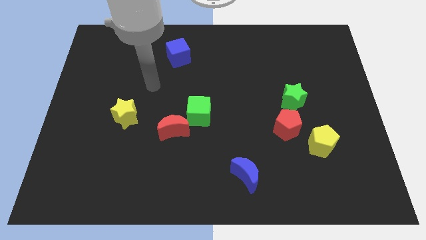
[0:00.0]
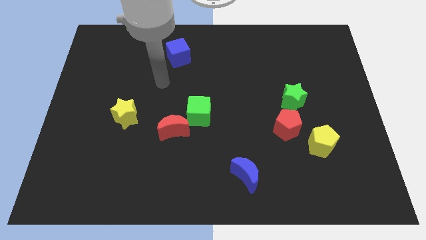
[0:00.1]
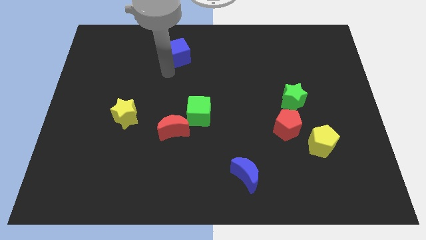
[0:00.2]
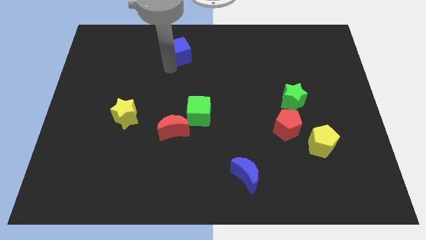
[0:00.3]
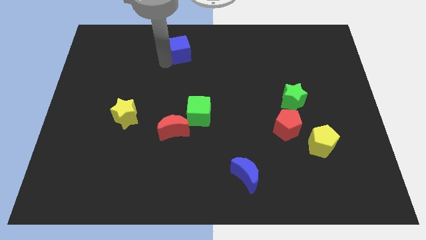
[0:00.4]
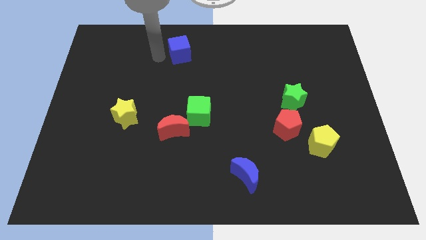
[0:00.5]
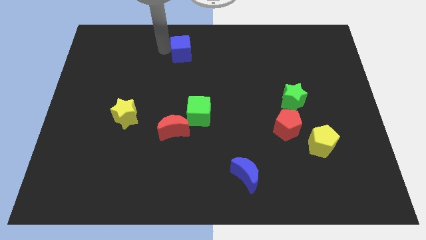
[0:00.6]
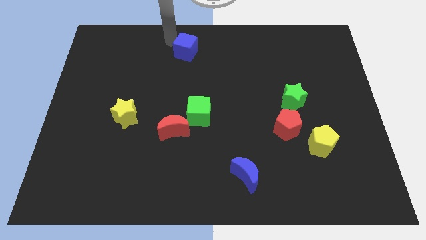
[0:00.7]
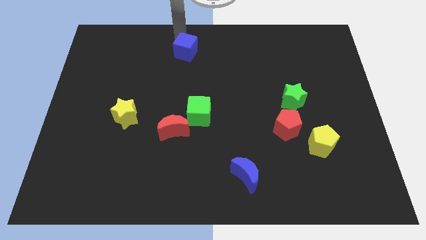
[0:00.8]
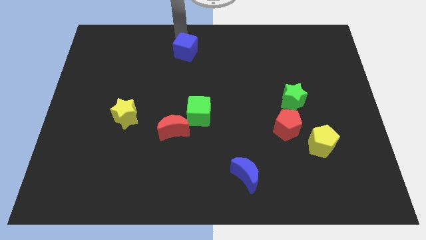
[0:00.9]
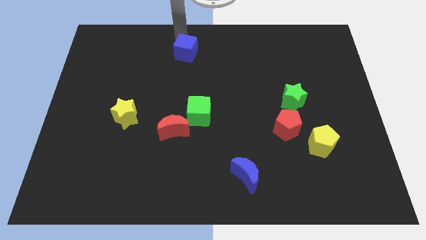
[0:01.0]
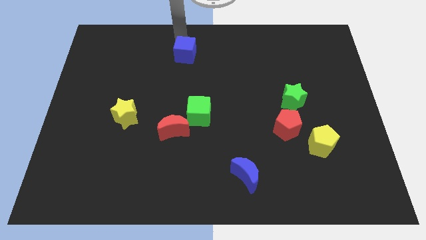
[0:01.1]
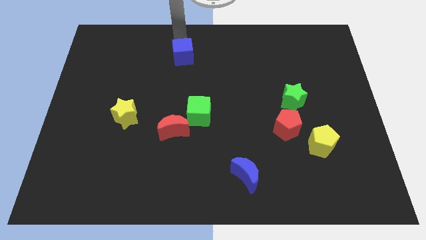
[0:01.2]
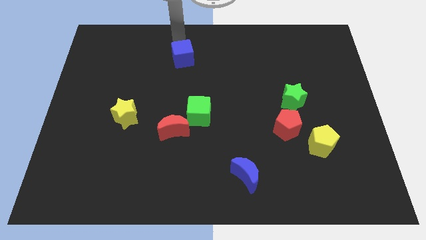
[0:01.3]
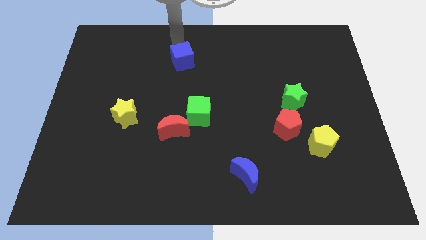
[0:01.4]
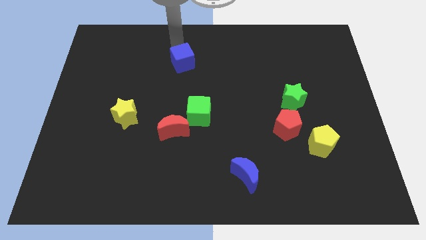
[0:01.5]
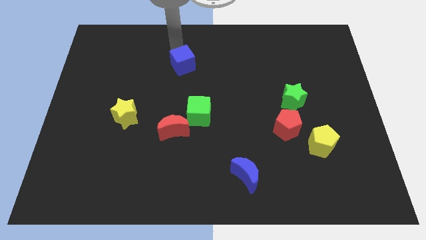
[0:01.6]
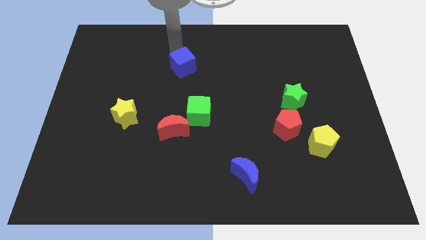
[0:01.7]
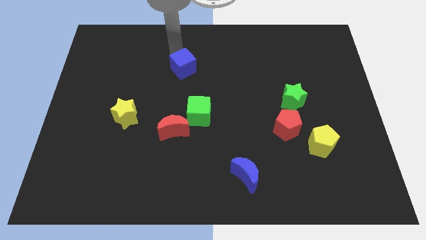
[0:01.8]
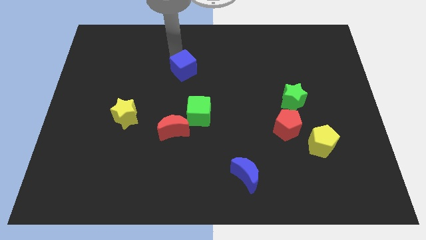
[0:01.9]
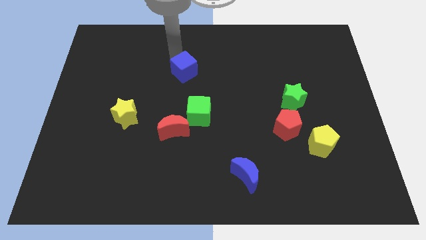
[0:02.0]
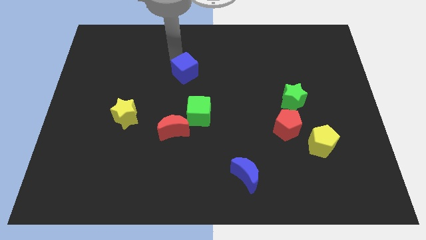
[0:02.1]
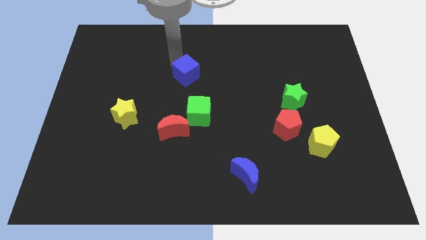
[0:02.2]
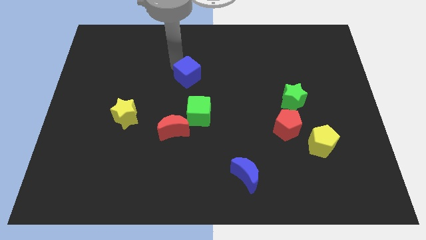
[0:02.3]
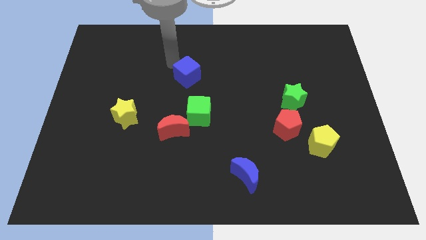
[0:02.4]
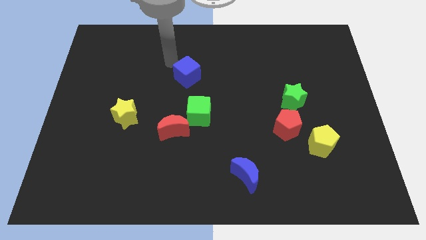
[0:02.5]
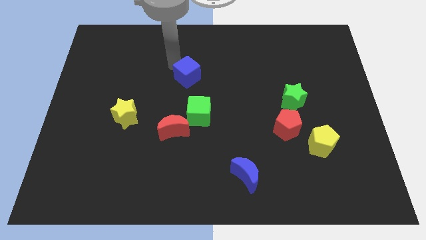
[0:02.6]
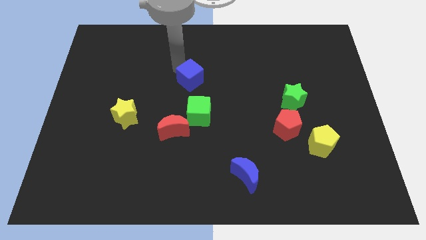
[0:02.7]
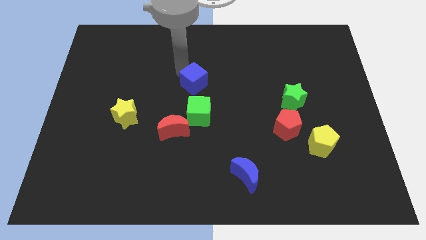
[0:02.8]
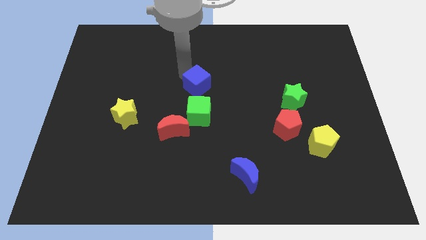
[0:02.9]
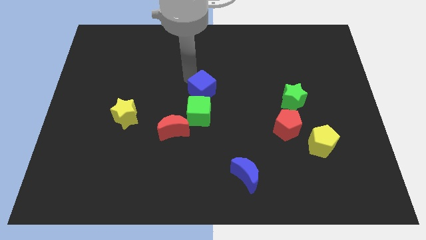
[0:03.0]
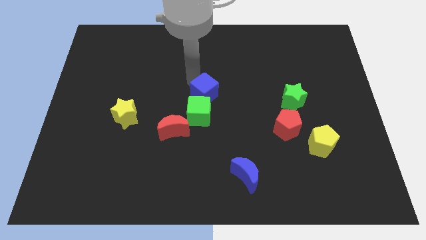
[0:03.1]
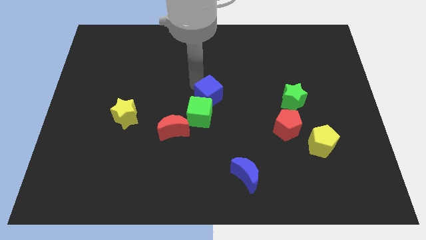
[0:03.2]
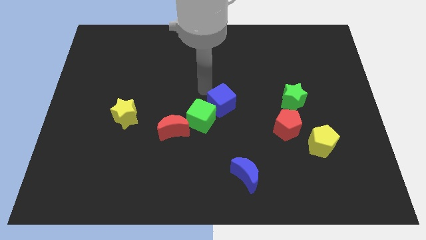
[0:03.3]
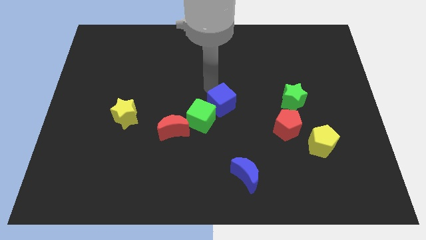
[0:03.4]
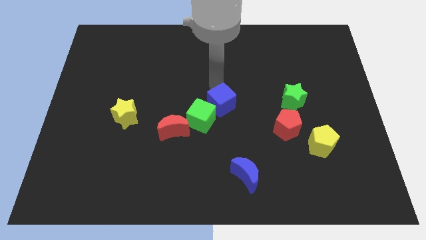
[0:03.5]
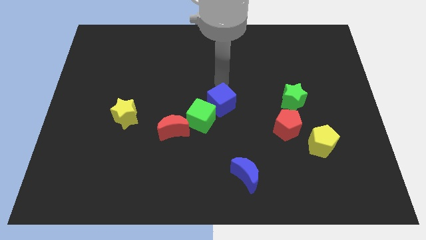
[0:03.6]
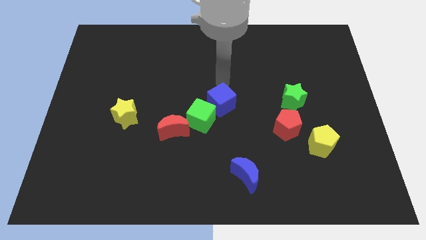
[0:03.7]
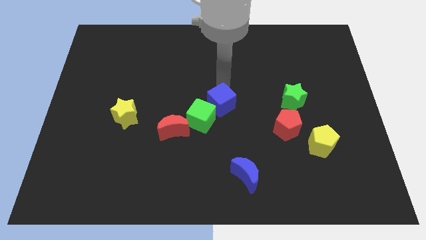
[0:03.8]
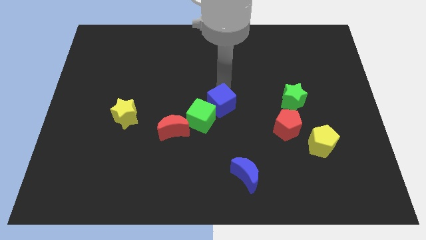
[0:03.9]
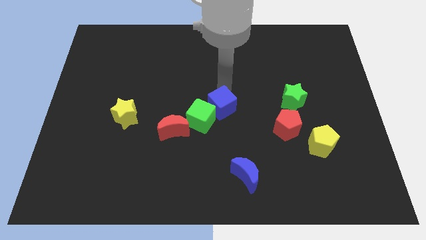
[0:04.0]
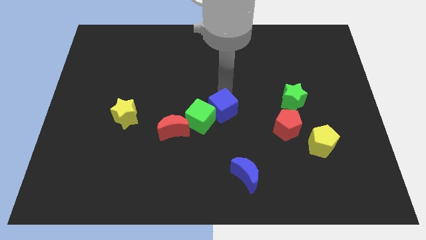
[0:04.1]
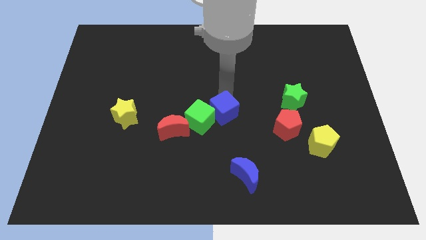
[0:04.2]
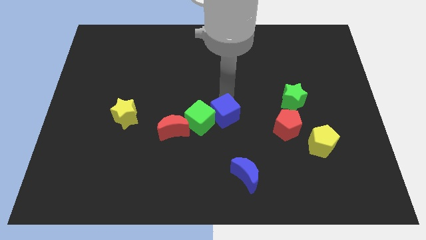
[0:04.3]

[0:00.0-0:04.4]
push the blue cube to the right of the red moon

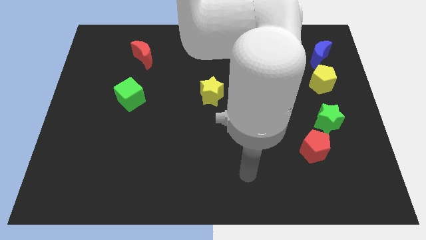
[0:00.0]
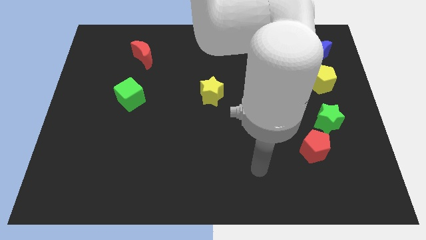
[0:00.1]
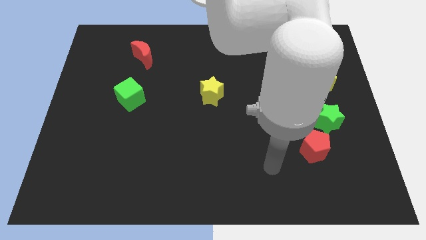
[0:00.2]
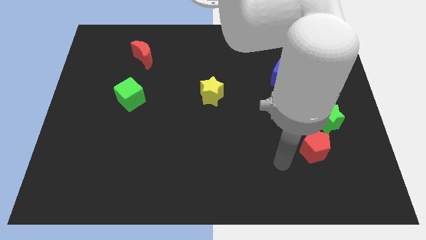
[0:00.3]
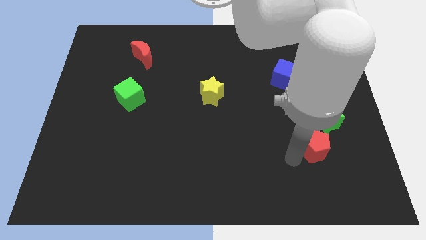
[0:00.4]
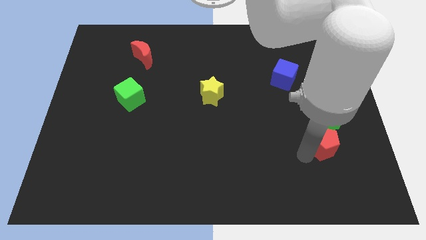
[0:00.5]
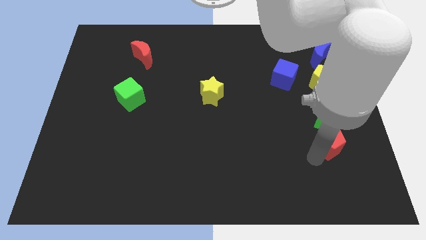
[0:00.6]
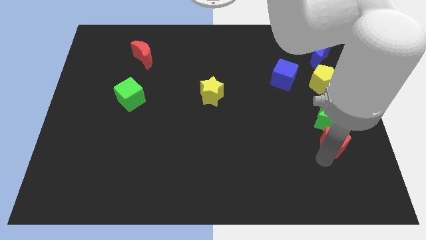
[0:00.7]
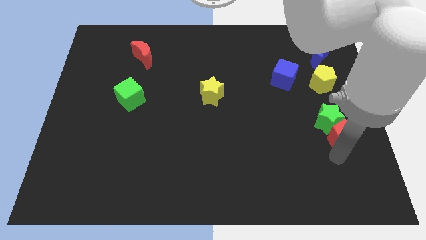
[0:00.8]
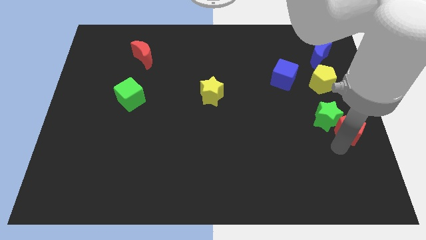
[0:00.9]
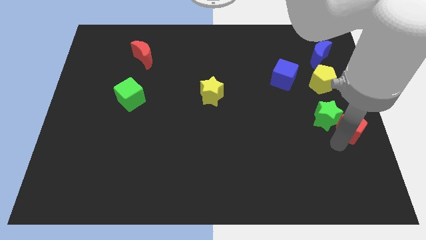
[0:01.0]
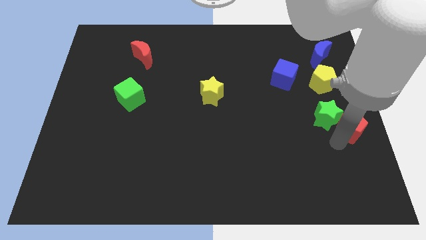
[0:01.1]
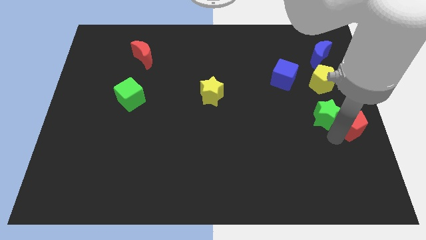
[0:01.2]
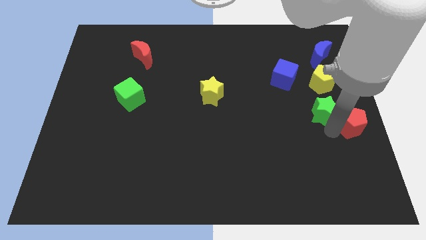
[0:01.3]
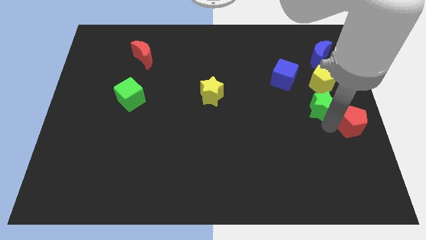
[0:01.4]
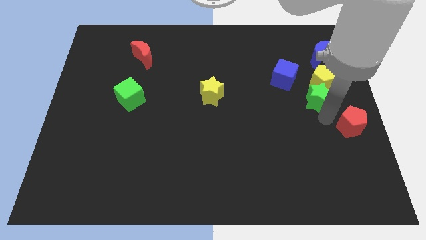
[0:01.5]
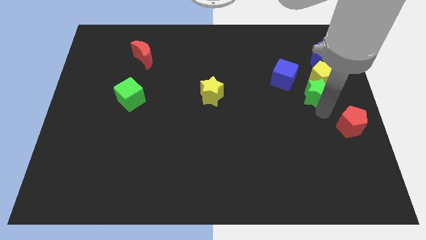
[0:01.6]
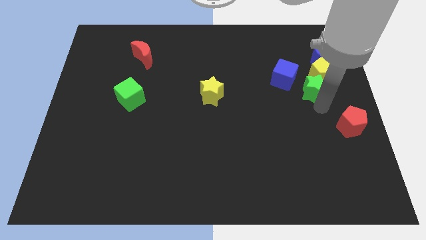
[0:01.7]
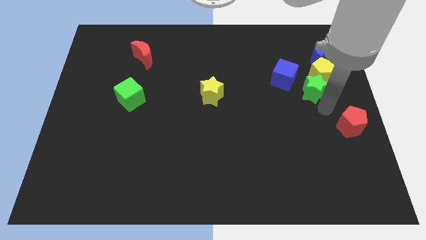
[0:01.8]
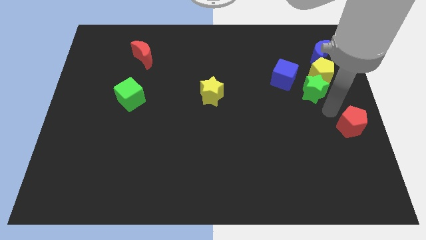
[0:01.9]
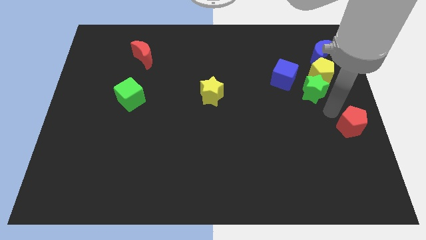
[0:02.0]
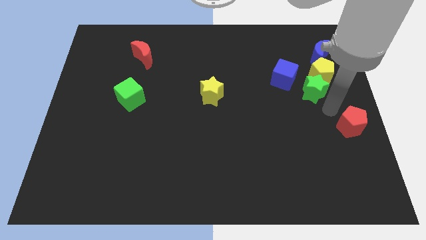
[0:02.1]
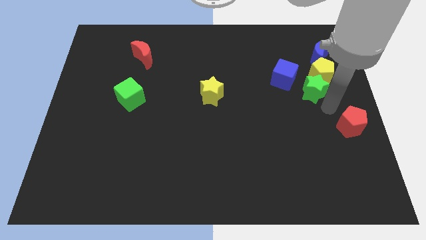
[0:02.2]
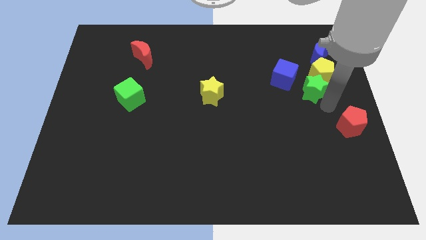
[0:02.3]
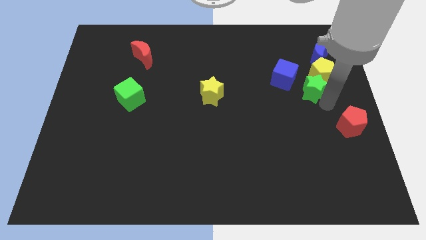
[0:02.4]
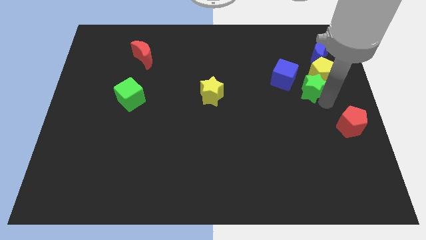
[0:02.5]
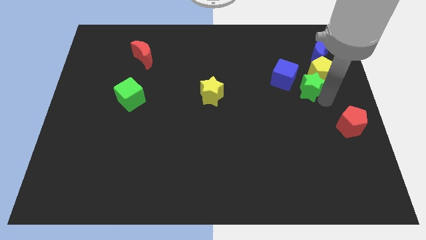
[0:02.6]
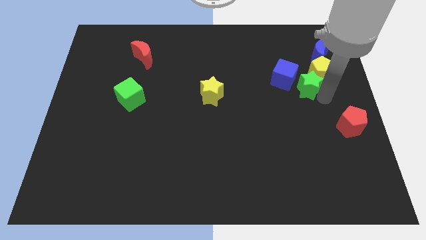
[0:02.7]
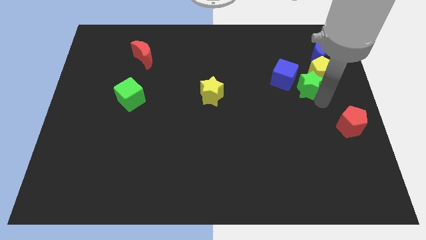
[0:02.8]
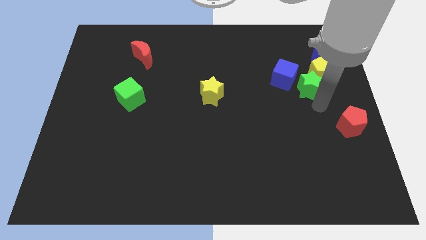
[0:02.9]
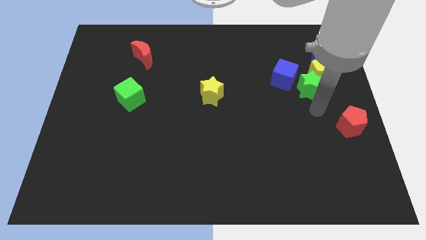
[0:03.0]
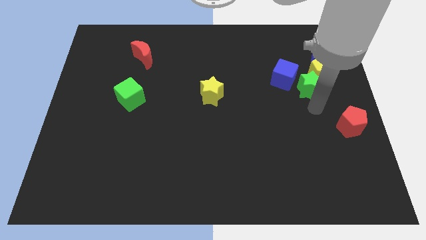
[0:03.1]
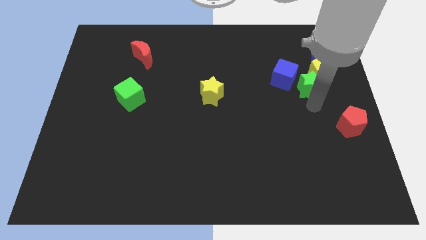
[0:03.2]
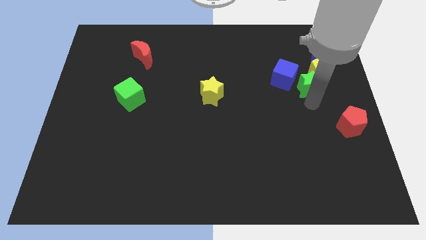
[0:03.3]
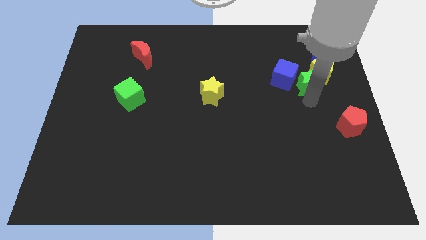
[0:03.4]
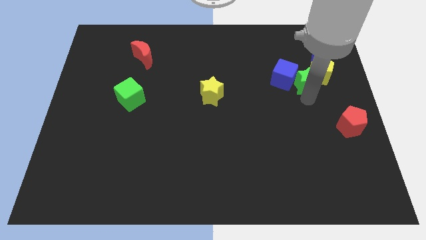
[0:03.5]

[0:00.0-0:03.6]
push the green star diagonally down and to the left of the blue moon
